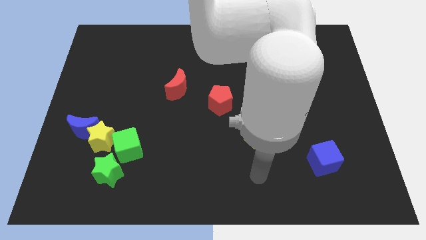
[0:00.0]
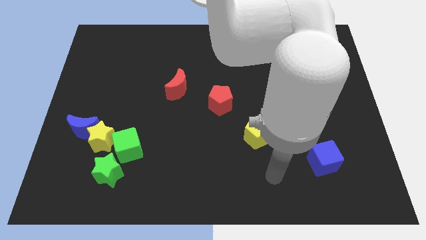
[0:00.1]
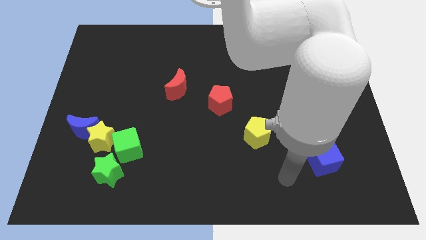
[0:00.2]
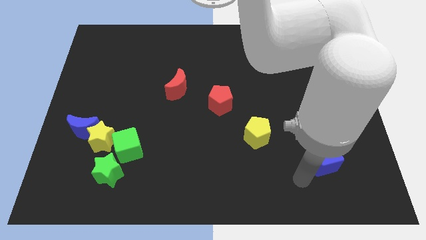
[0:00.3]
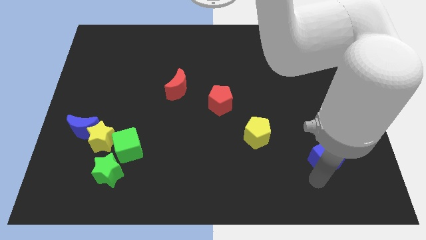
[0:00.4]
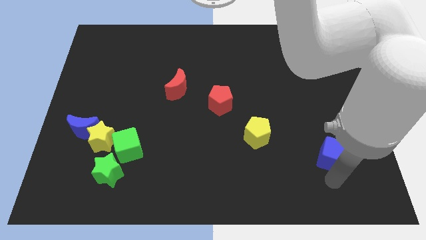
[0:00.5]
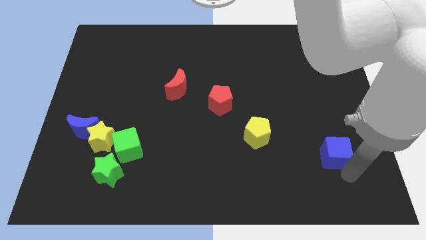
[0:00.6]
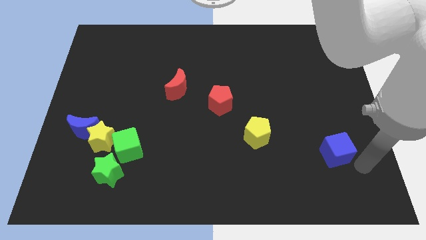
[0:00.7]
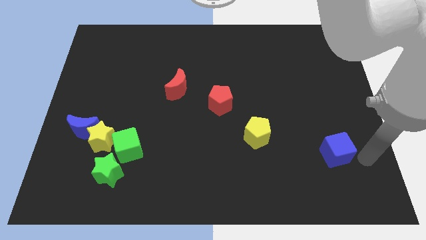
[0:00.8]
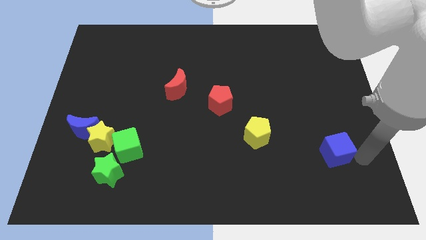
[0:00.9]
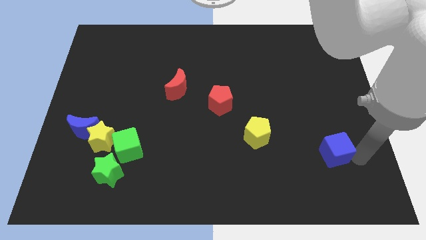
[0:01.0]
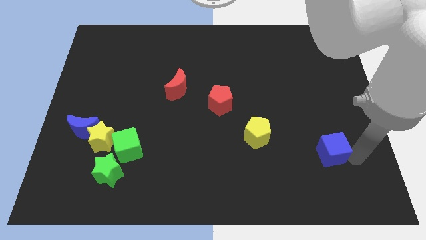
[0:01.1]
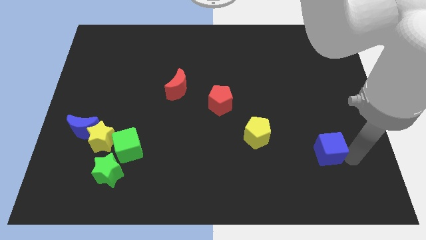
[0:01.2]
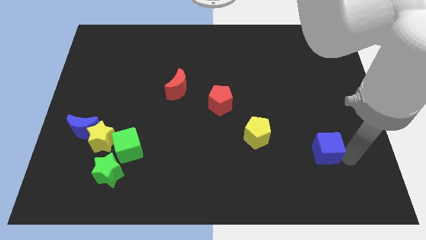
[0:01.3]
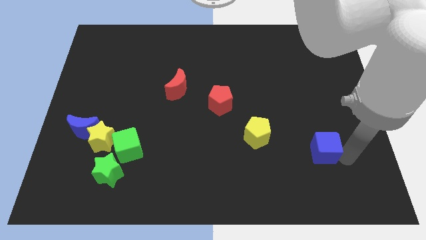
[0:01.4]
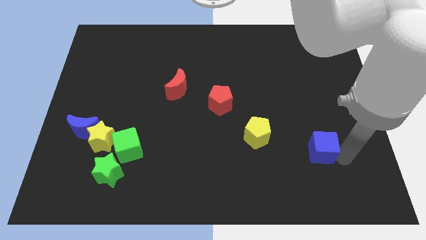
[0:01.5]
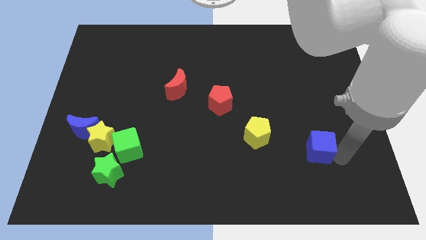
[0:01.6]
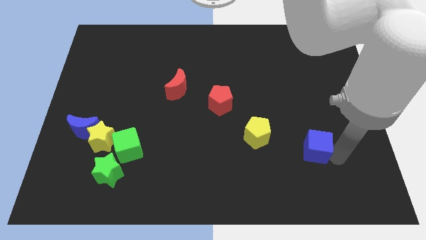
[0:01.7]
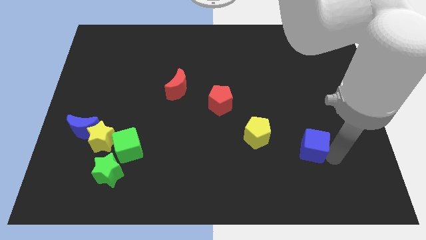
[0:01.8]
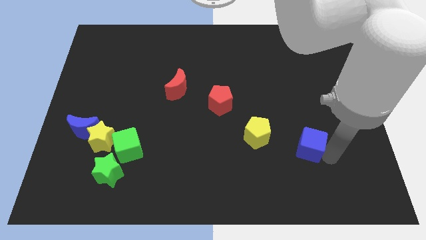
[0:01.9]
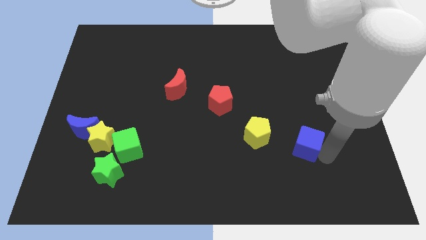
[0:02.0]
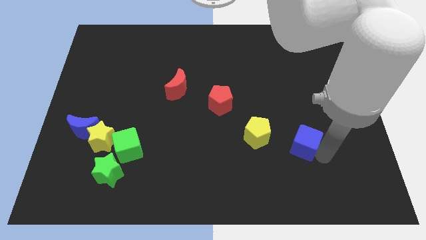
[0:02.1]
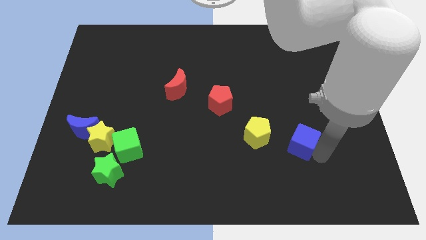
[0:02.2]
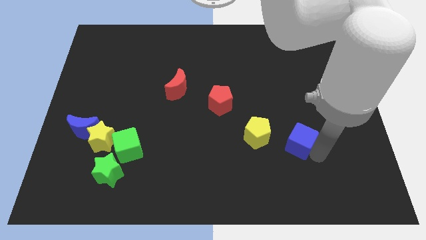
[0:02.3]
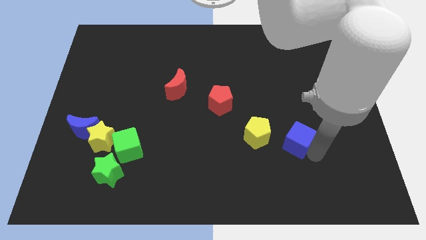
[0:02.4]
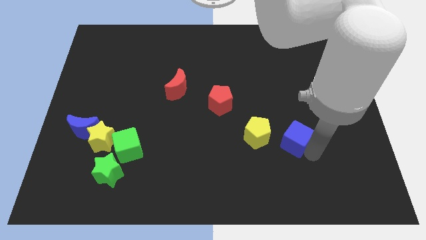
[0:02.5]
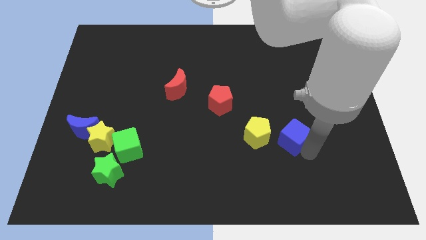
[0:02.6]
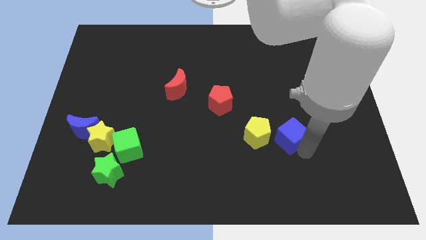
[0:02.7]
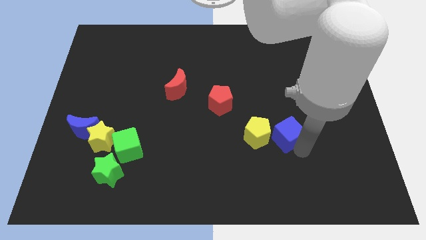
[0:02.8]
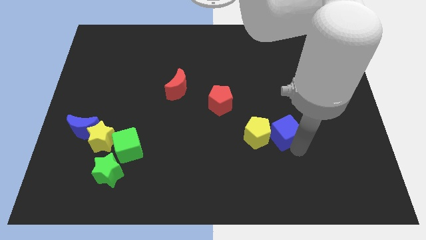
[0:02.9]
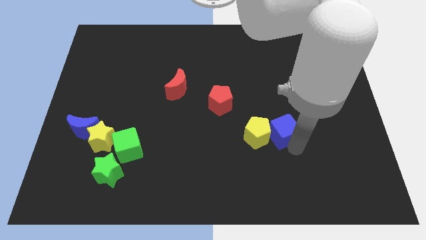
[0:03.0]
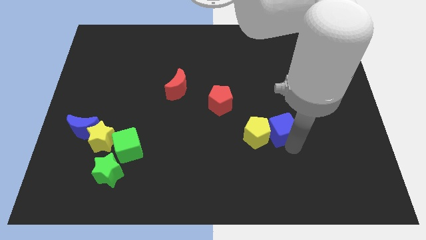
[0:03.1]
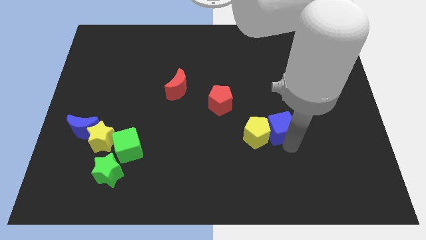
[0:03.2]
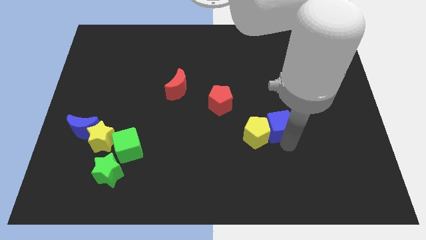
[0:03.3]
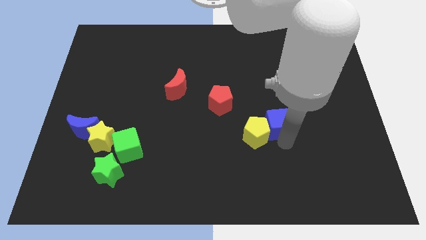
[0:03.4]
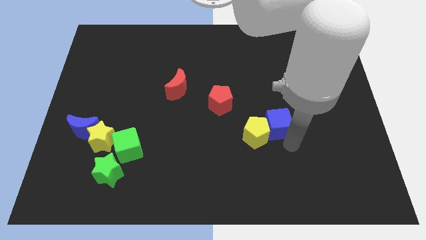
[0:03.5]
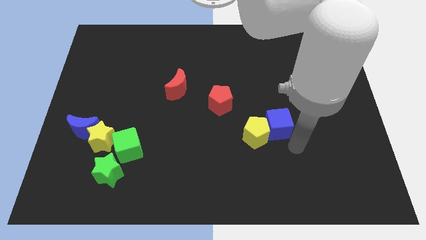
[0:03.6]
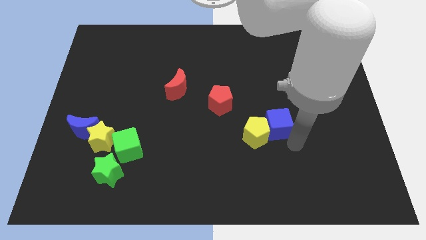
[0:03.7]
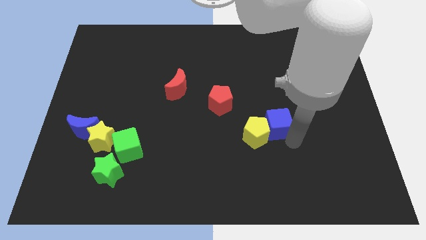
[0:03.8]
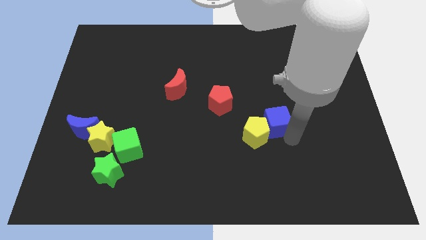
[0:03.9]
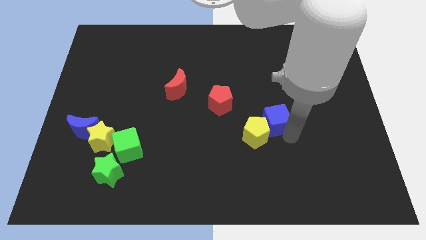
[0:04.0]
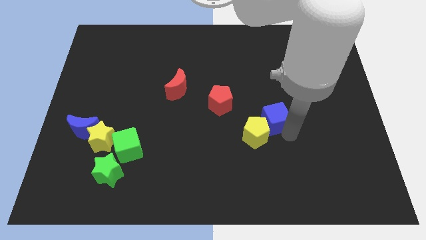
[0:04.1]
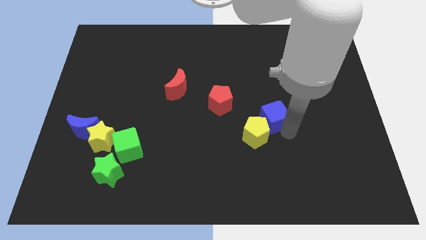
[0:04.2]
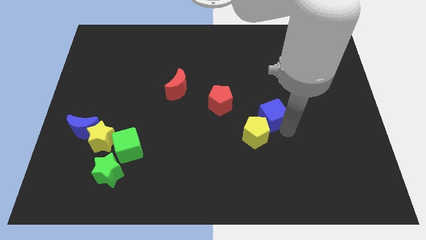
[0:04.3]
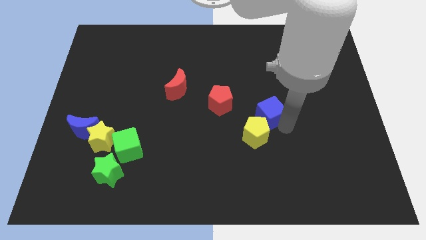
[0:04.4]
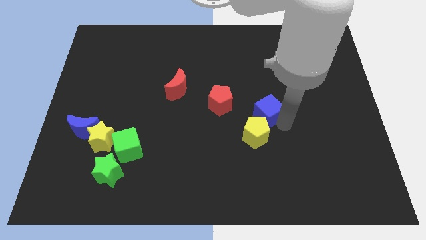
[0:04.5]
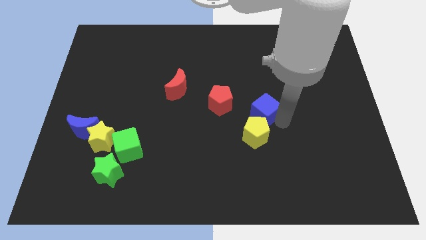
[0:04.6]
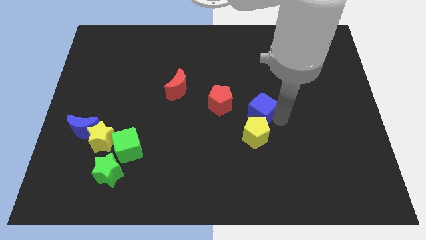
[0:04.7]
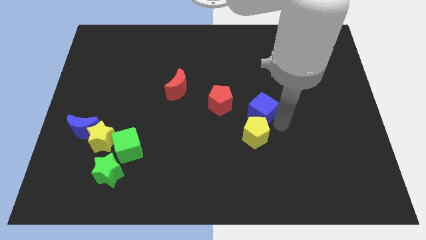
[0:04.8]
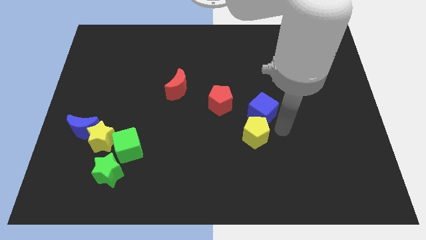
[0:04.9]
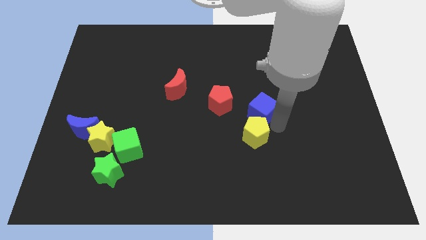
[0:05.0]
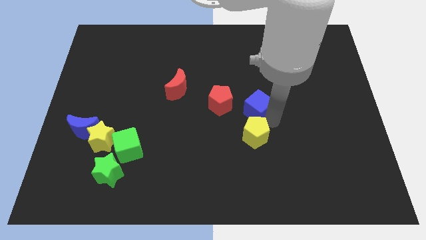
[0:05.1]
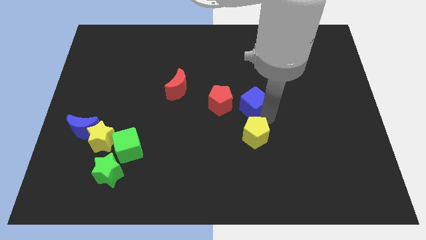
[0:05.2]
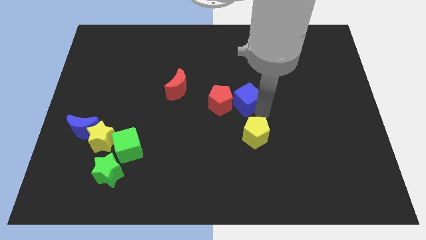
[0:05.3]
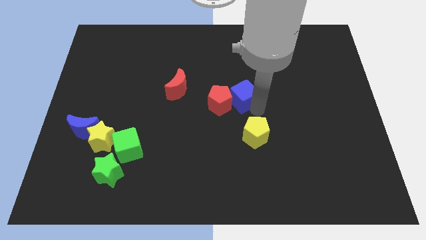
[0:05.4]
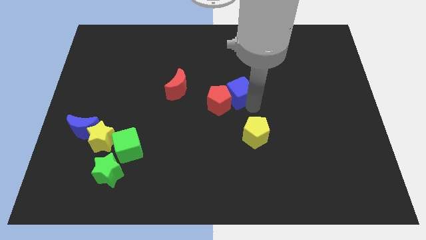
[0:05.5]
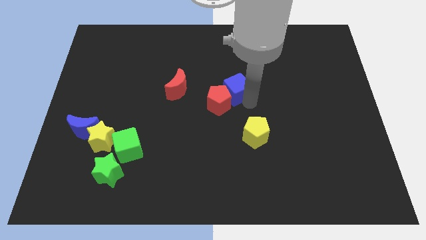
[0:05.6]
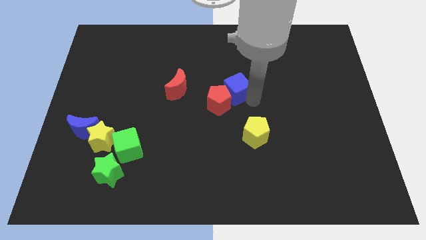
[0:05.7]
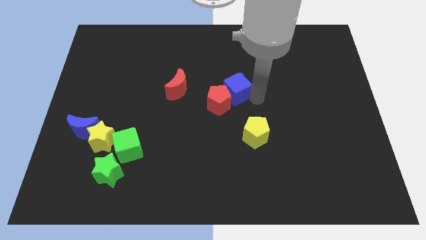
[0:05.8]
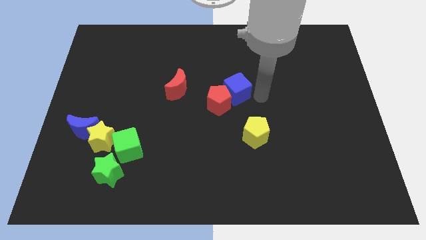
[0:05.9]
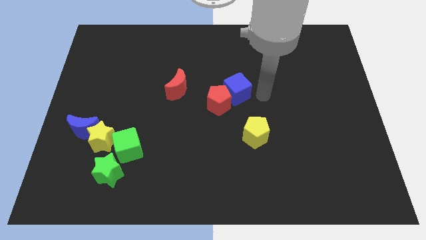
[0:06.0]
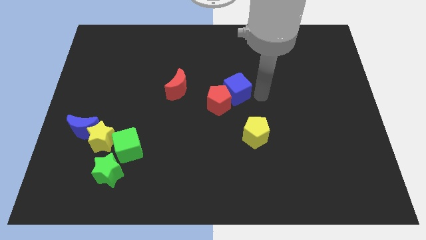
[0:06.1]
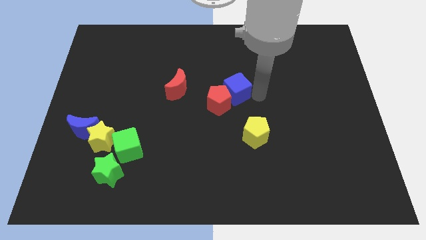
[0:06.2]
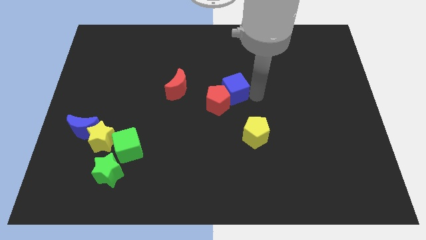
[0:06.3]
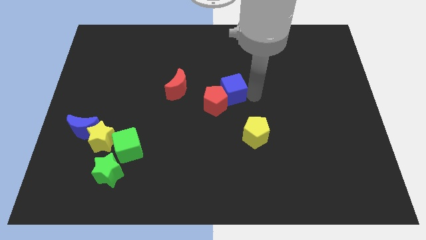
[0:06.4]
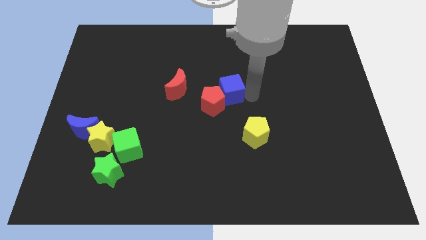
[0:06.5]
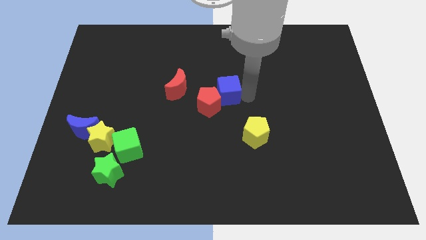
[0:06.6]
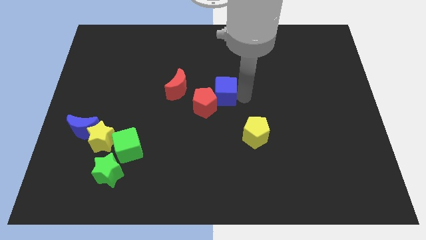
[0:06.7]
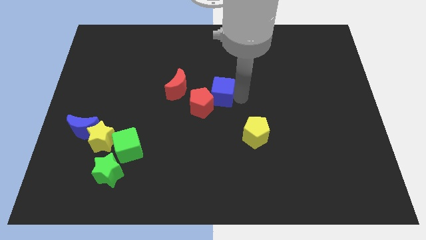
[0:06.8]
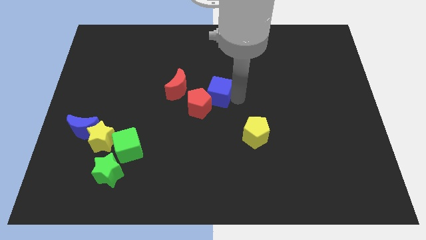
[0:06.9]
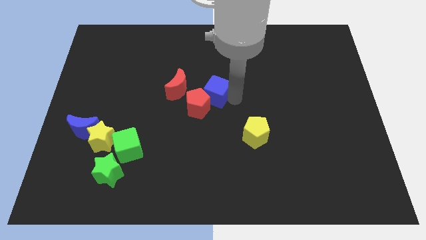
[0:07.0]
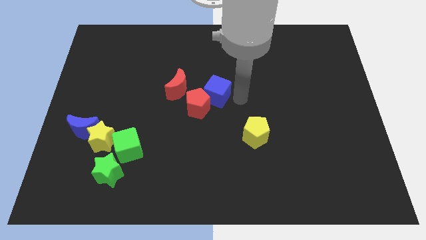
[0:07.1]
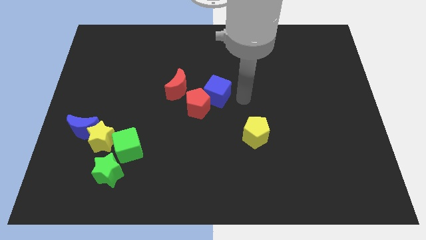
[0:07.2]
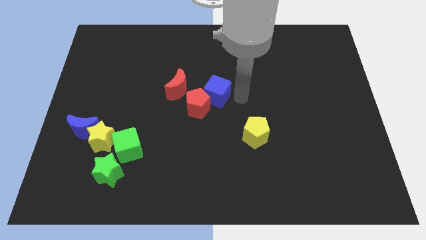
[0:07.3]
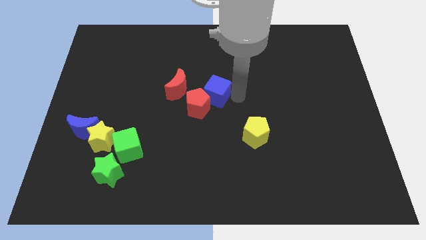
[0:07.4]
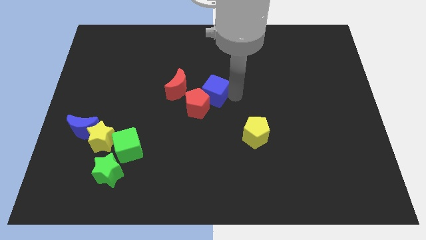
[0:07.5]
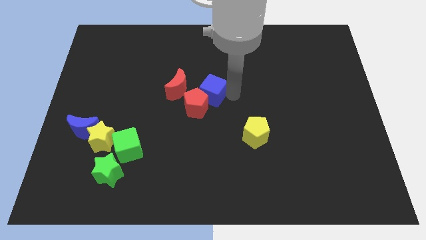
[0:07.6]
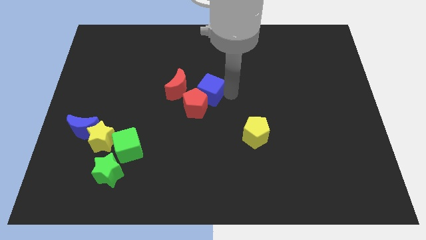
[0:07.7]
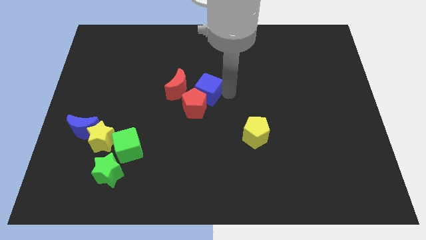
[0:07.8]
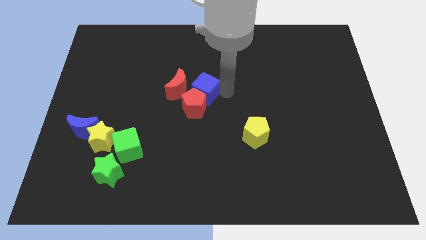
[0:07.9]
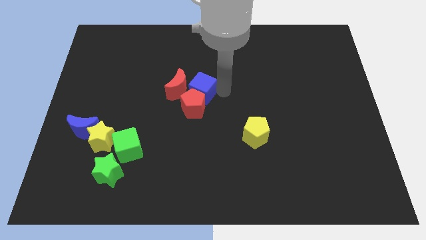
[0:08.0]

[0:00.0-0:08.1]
slide the blue cube close to the red moon
